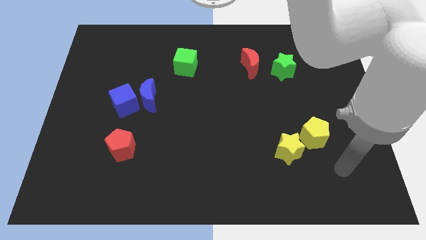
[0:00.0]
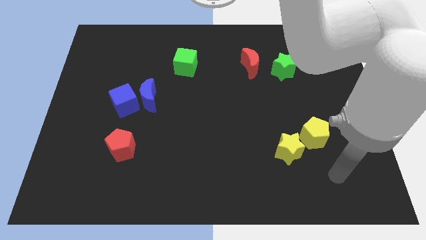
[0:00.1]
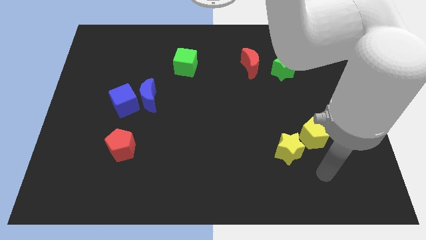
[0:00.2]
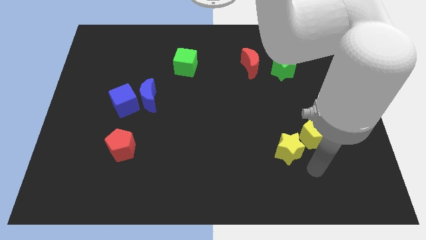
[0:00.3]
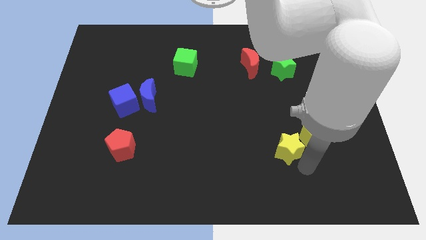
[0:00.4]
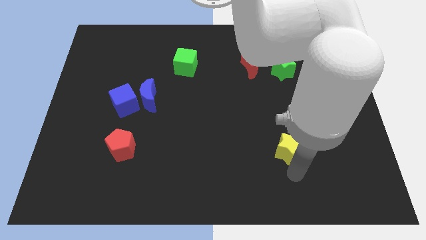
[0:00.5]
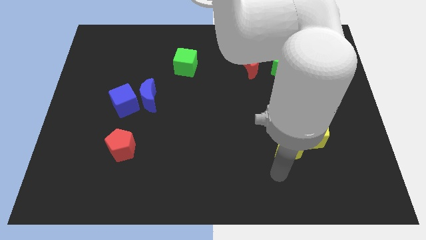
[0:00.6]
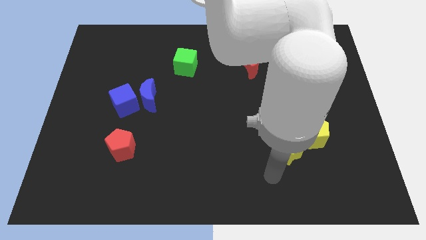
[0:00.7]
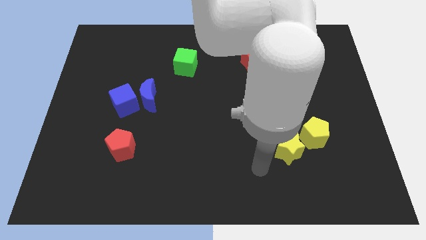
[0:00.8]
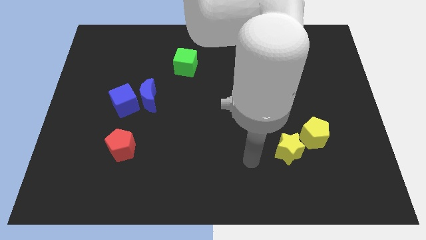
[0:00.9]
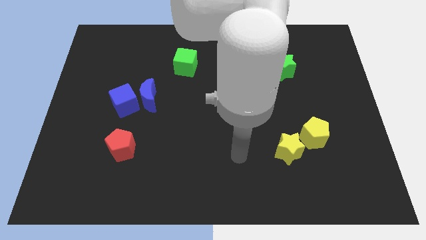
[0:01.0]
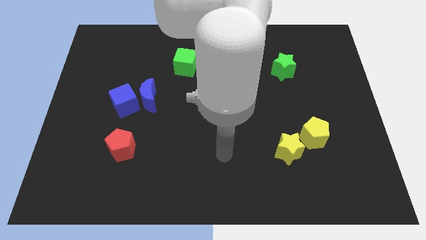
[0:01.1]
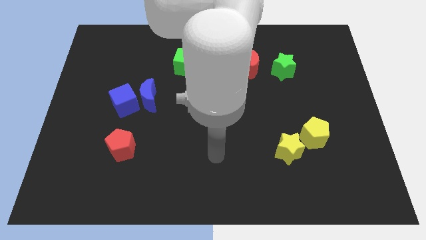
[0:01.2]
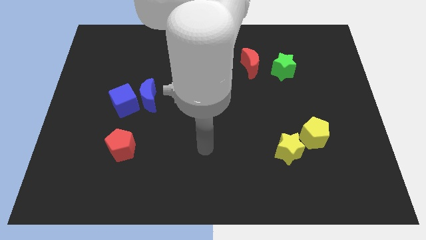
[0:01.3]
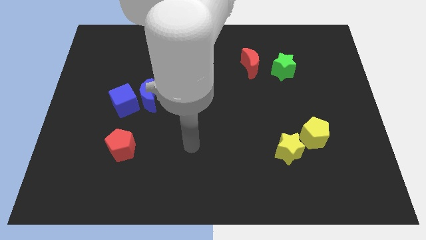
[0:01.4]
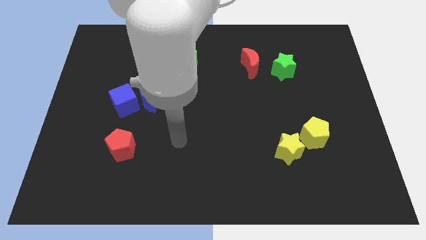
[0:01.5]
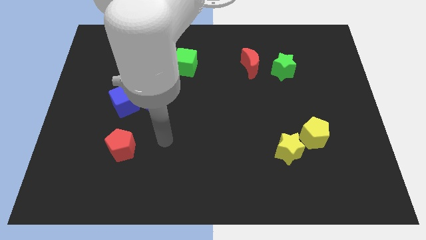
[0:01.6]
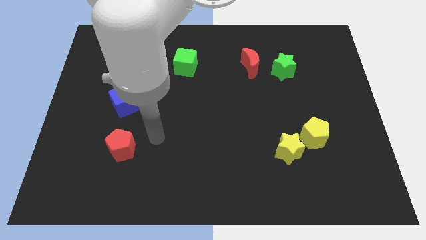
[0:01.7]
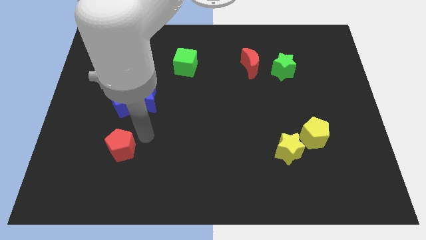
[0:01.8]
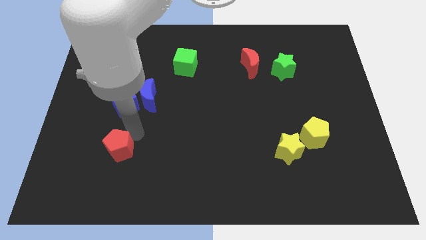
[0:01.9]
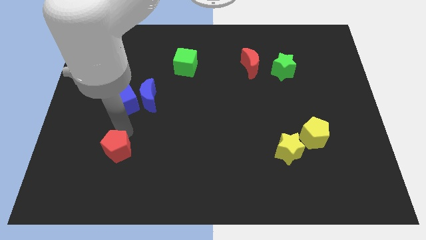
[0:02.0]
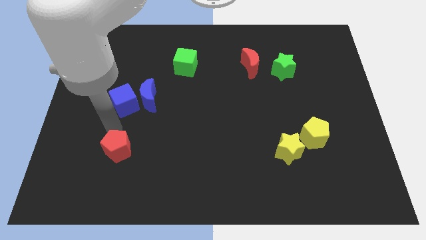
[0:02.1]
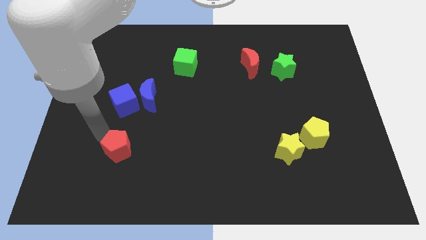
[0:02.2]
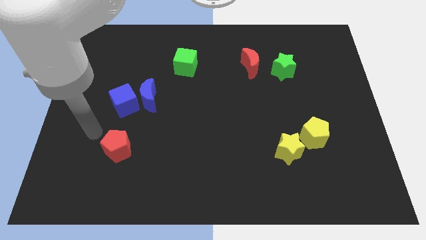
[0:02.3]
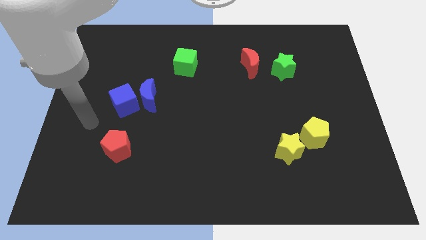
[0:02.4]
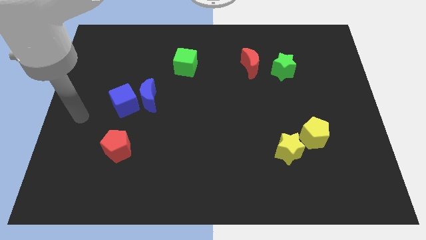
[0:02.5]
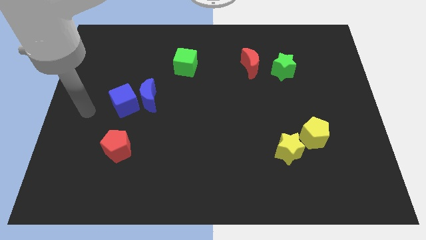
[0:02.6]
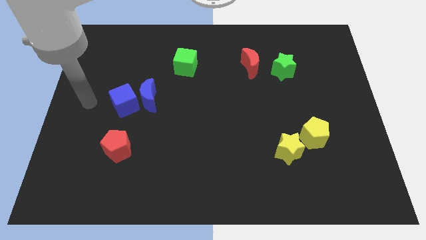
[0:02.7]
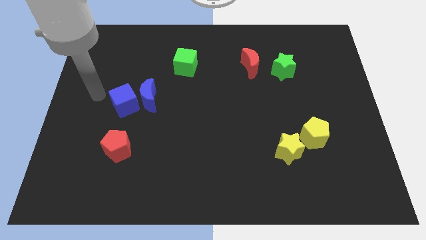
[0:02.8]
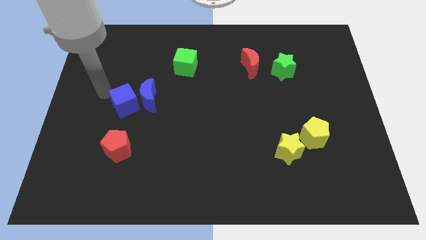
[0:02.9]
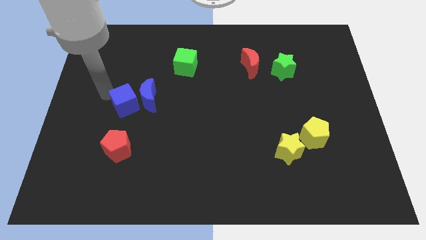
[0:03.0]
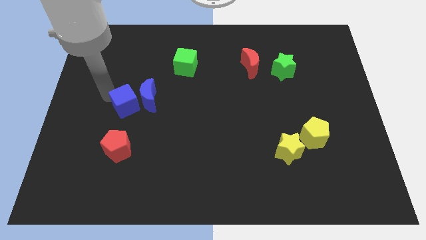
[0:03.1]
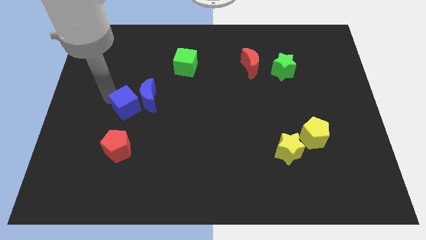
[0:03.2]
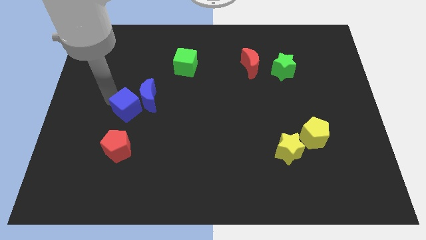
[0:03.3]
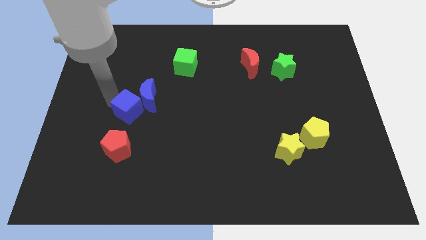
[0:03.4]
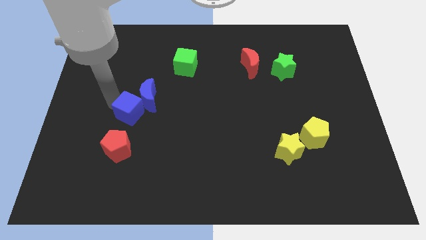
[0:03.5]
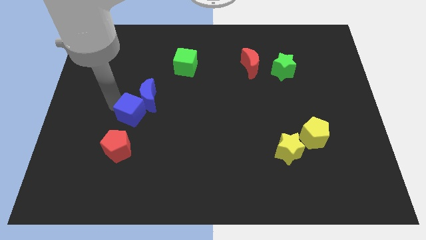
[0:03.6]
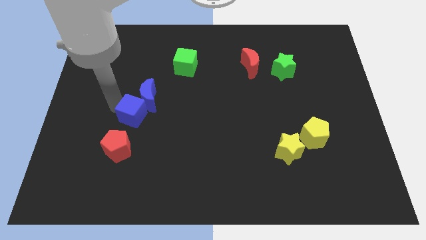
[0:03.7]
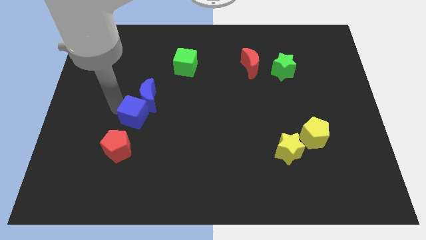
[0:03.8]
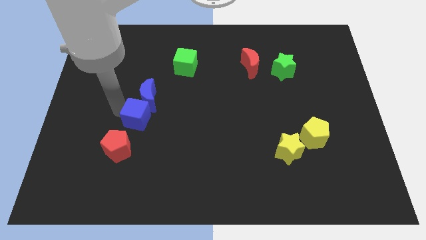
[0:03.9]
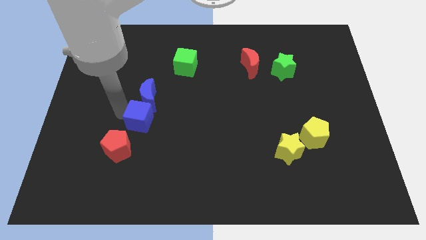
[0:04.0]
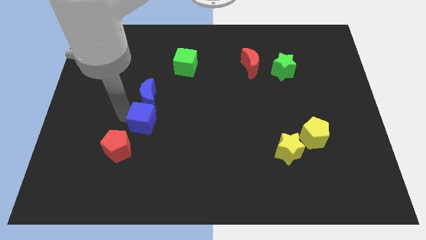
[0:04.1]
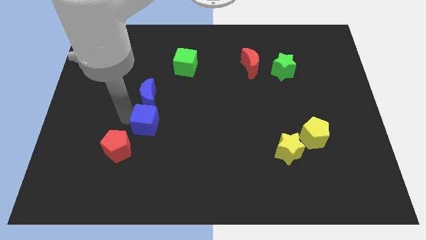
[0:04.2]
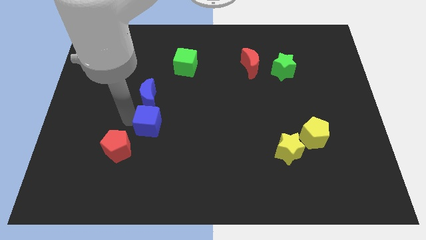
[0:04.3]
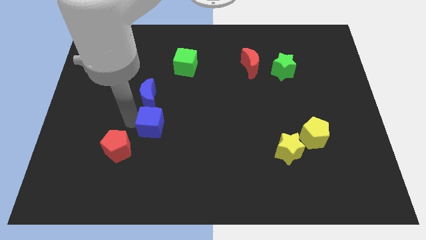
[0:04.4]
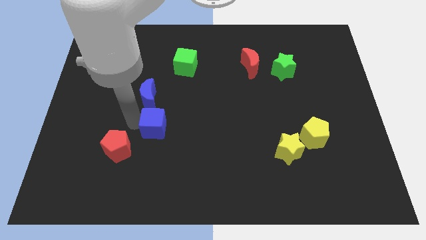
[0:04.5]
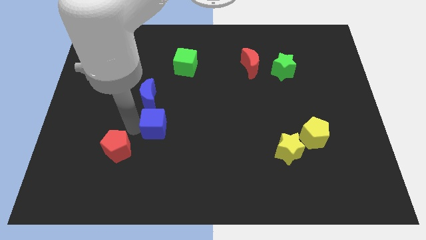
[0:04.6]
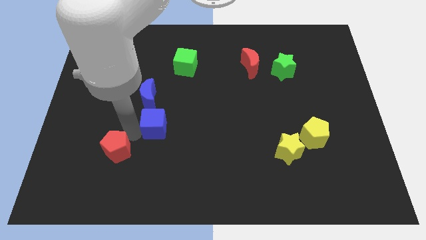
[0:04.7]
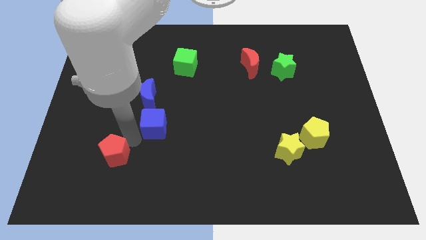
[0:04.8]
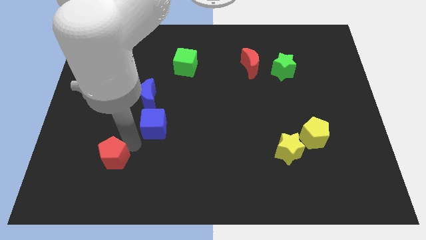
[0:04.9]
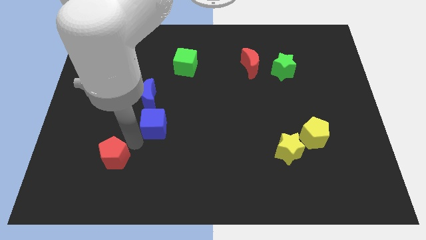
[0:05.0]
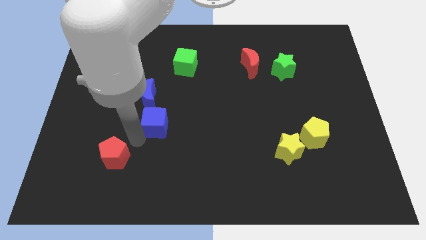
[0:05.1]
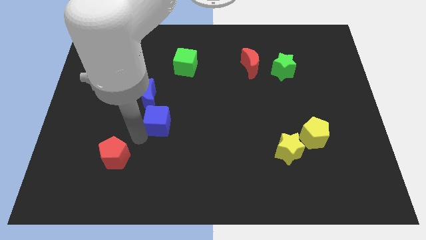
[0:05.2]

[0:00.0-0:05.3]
move the blue cube a little bit to the right

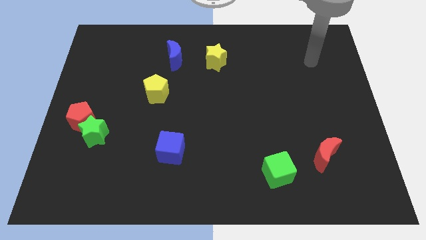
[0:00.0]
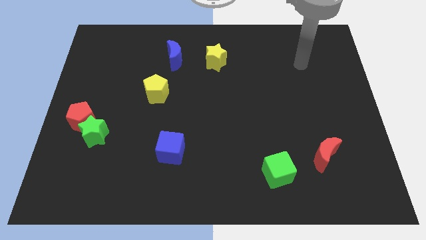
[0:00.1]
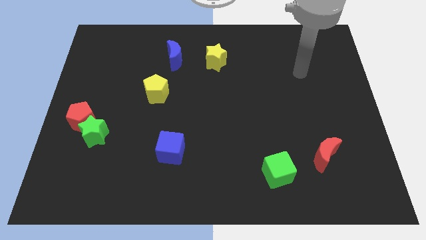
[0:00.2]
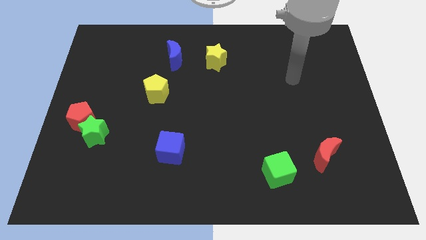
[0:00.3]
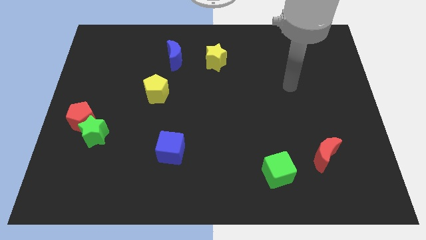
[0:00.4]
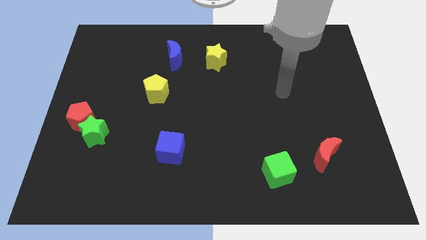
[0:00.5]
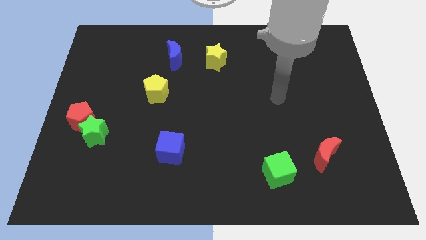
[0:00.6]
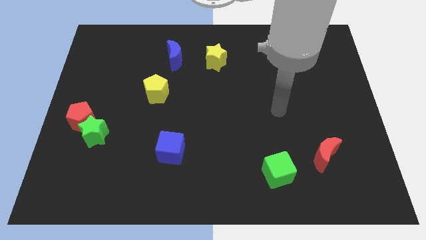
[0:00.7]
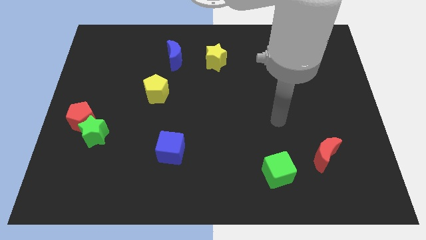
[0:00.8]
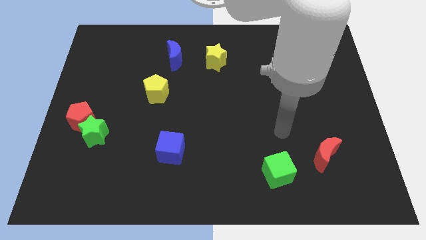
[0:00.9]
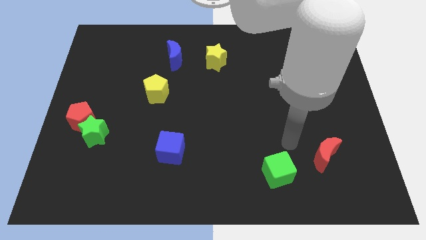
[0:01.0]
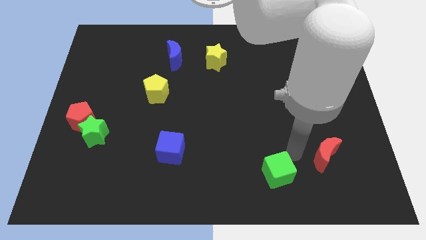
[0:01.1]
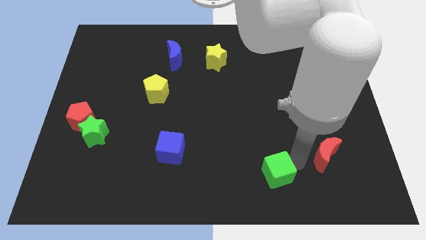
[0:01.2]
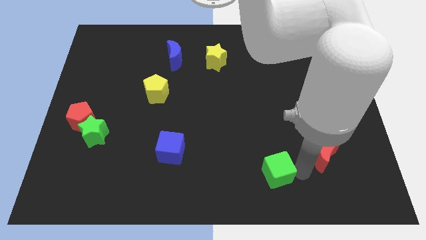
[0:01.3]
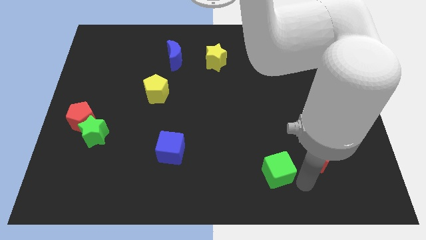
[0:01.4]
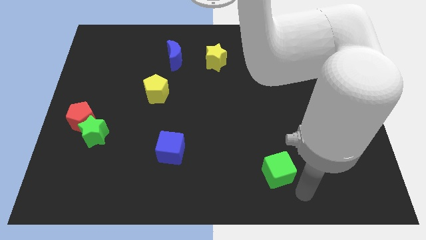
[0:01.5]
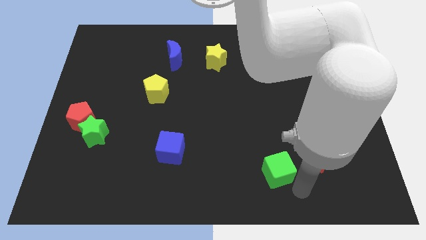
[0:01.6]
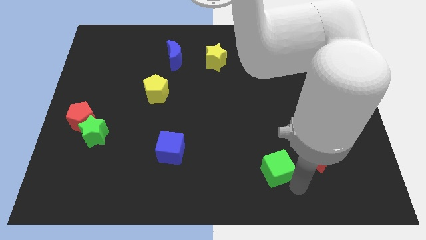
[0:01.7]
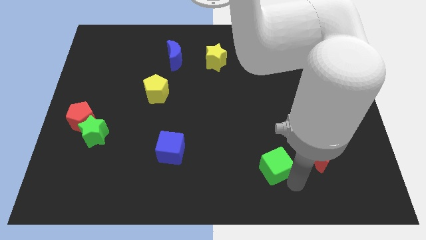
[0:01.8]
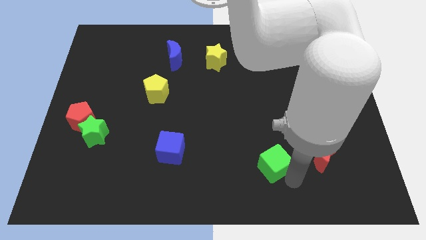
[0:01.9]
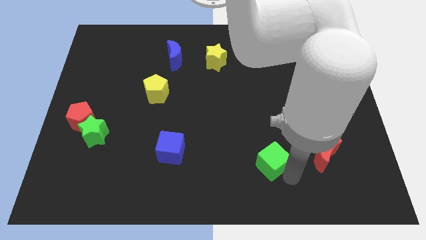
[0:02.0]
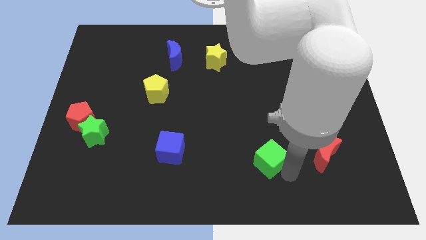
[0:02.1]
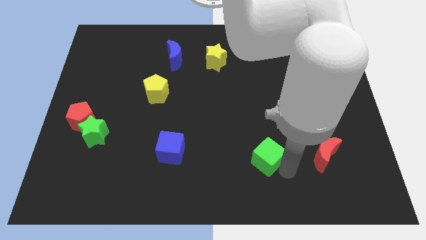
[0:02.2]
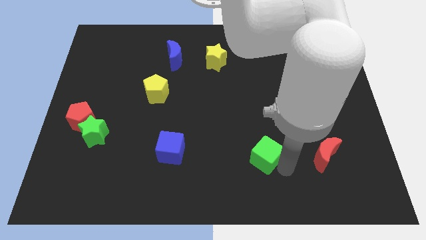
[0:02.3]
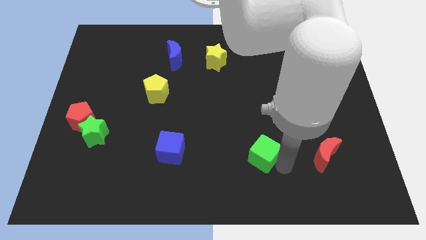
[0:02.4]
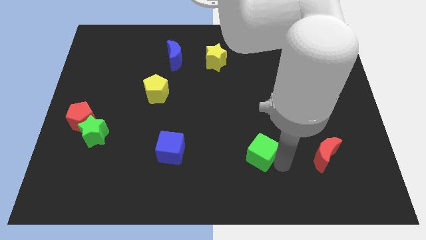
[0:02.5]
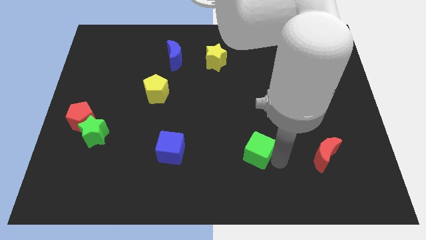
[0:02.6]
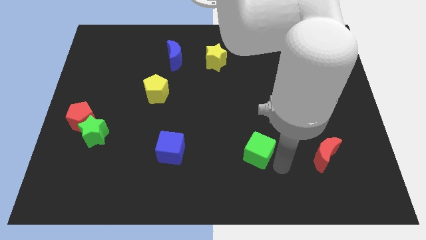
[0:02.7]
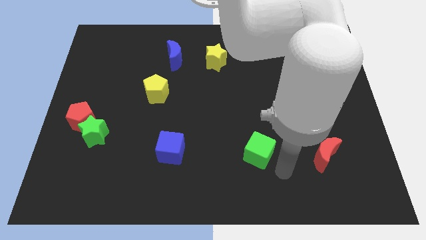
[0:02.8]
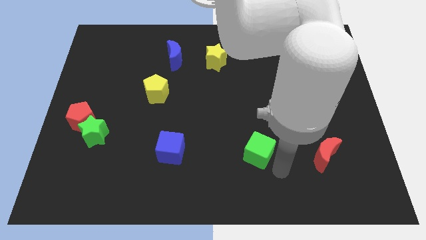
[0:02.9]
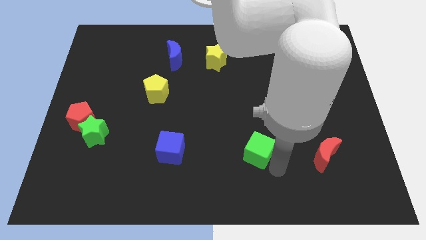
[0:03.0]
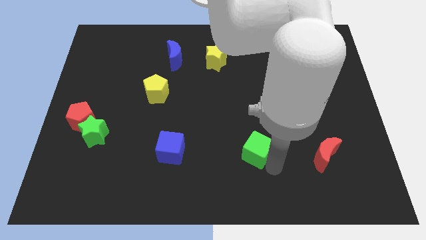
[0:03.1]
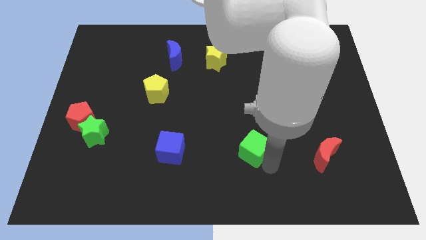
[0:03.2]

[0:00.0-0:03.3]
slide the green cube up and left diagonally a little bit
